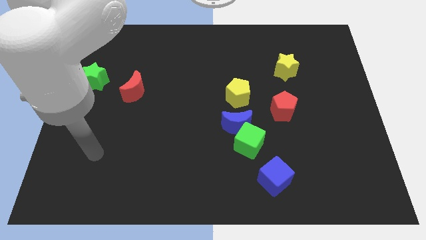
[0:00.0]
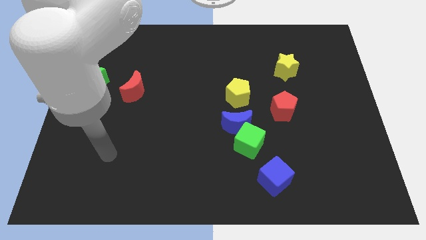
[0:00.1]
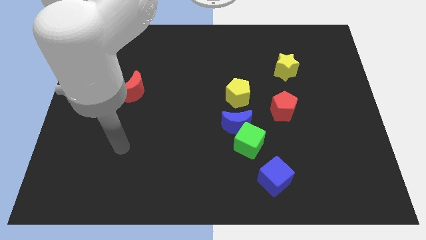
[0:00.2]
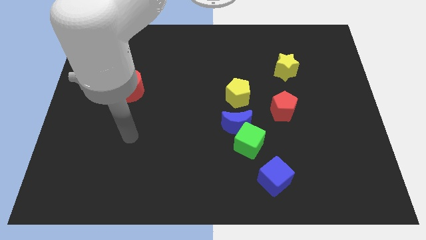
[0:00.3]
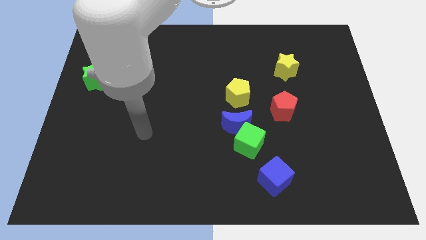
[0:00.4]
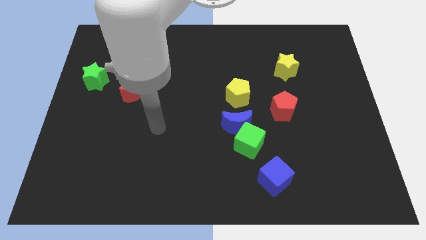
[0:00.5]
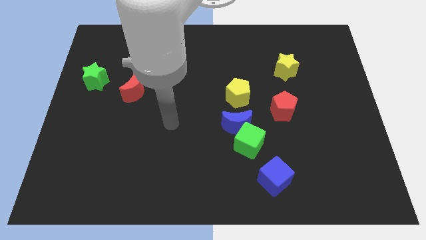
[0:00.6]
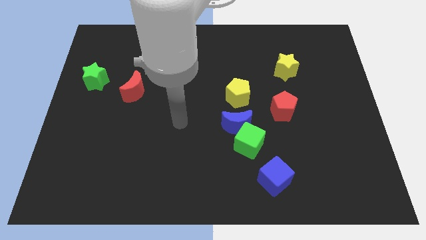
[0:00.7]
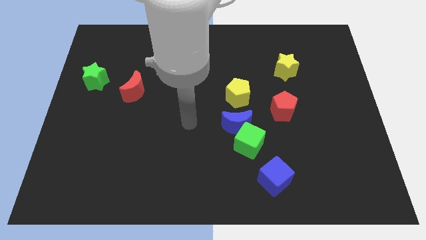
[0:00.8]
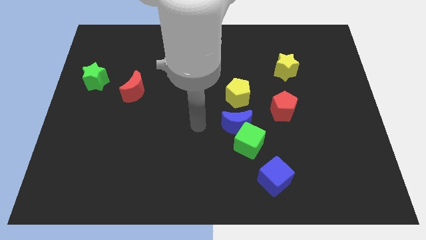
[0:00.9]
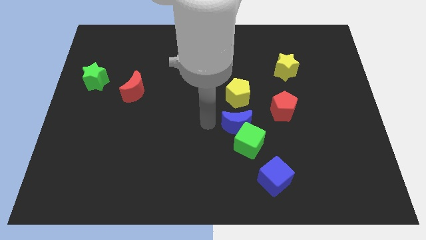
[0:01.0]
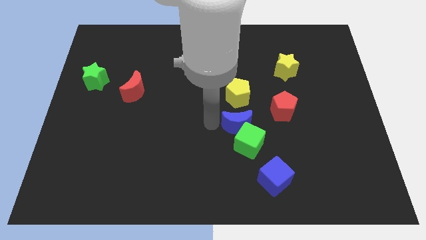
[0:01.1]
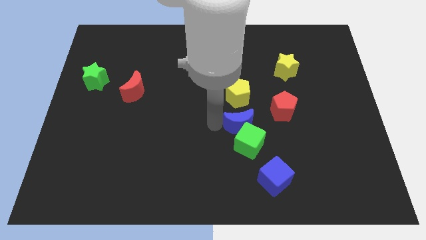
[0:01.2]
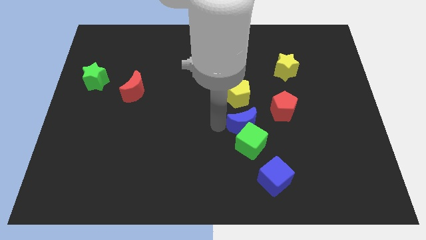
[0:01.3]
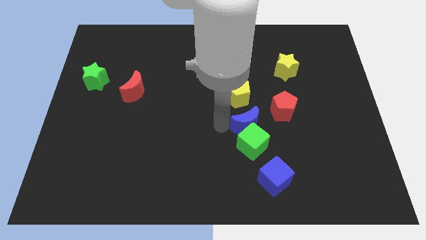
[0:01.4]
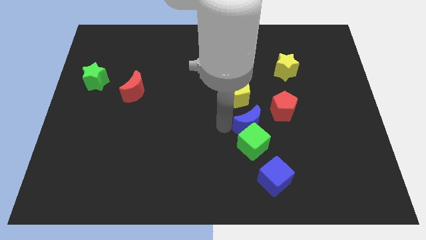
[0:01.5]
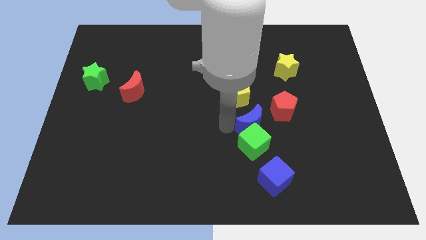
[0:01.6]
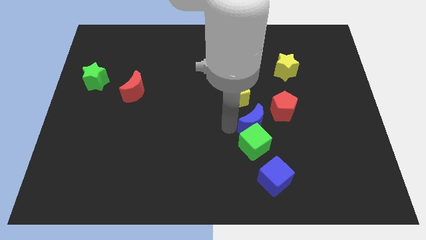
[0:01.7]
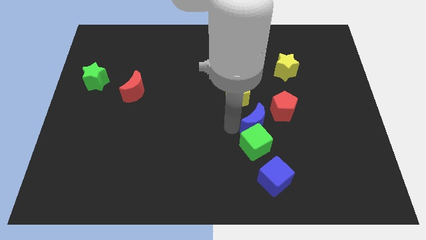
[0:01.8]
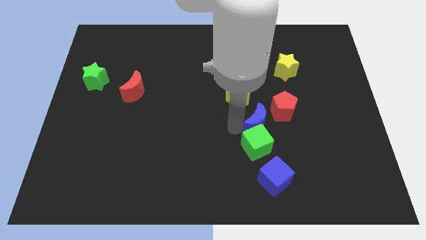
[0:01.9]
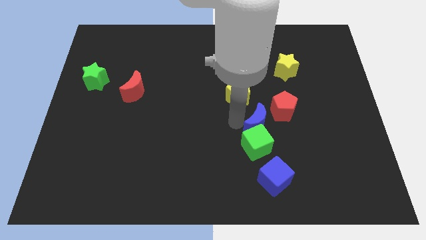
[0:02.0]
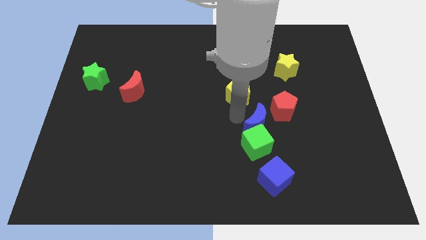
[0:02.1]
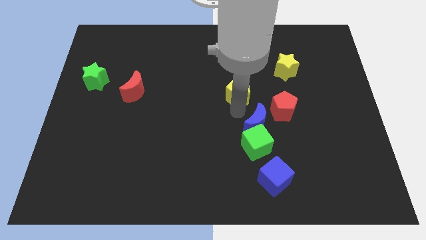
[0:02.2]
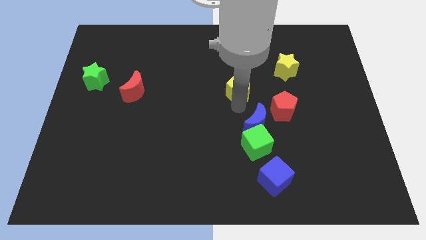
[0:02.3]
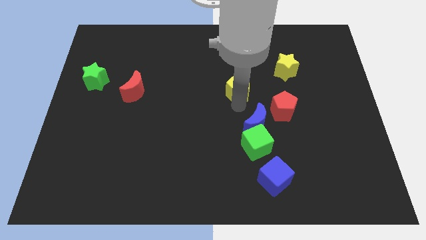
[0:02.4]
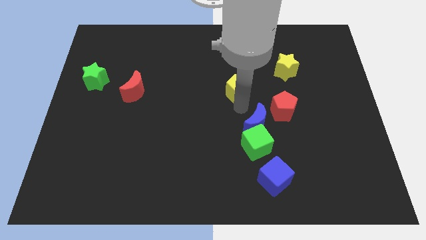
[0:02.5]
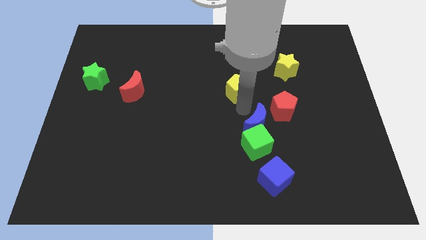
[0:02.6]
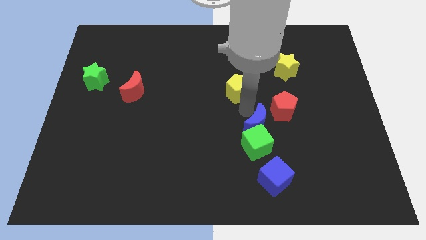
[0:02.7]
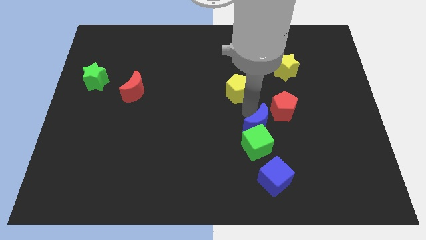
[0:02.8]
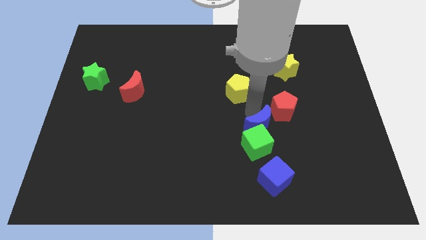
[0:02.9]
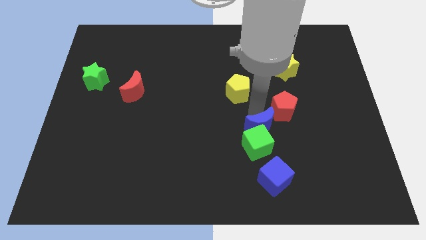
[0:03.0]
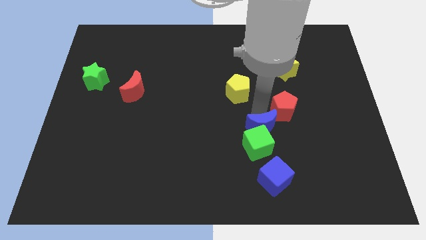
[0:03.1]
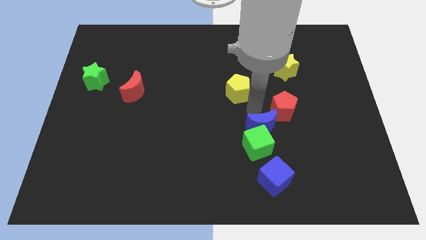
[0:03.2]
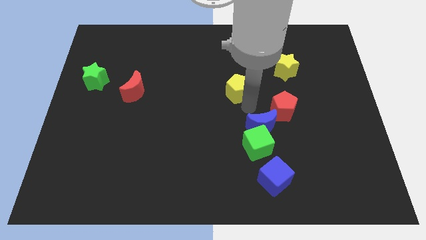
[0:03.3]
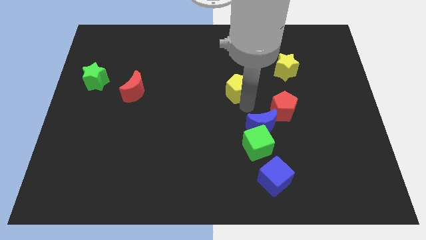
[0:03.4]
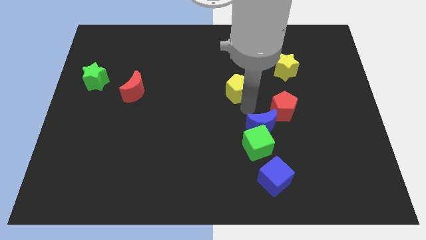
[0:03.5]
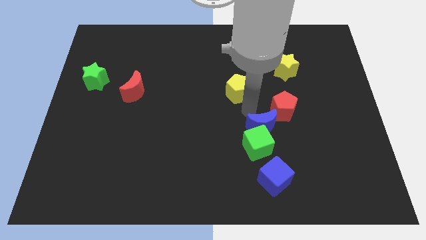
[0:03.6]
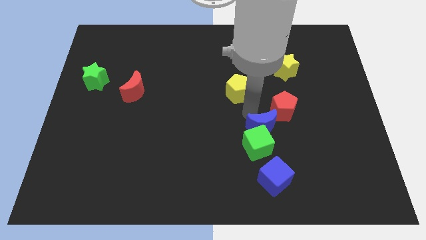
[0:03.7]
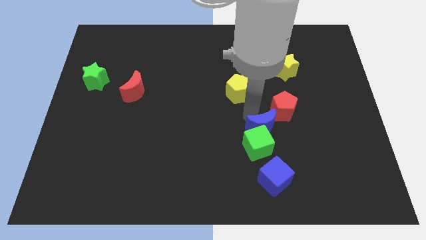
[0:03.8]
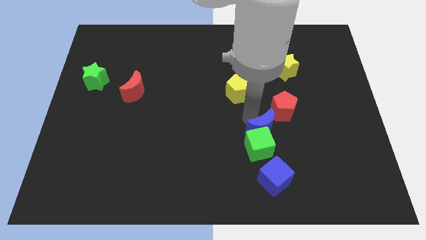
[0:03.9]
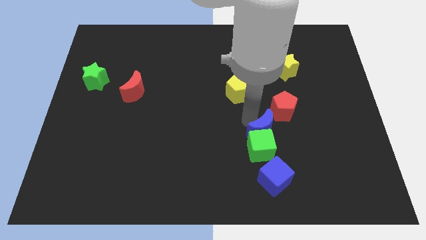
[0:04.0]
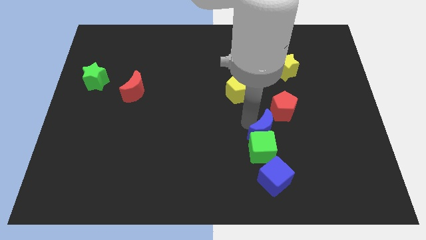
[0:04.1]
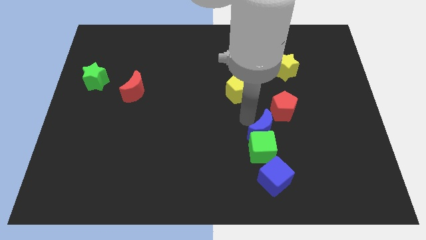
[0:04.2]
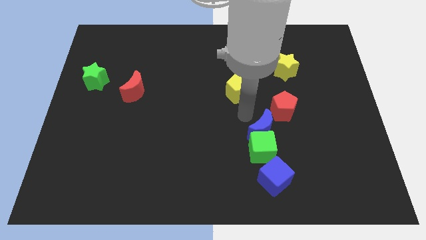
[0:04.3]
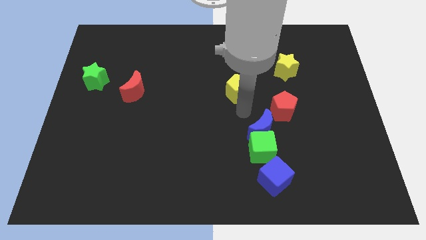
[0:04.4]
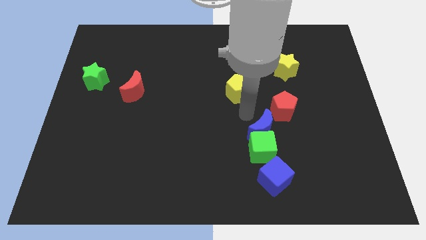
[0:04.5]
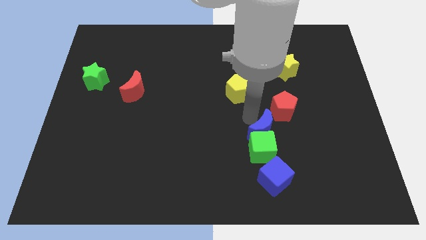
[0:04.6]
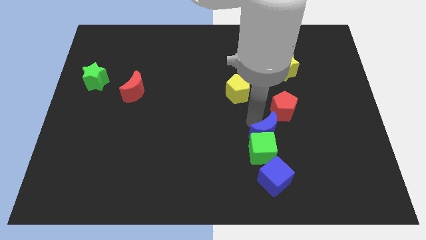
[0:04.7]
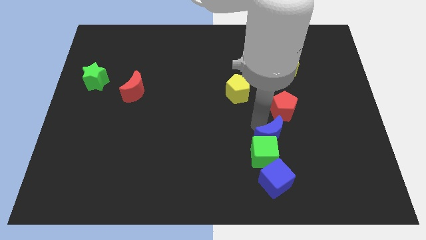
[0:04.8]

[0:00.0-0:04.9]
slightly slide the blue moon downwards and right diagonally

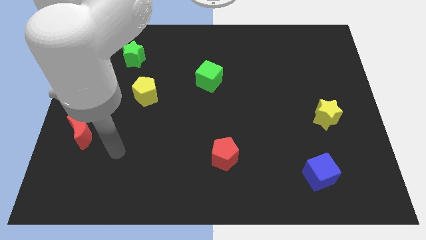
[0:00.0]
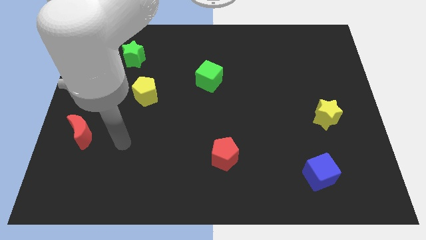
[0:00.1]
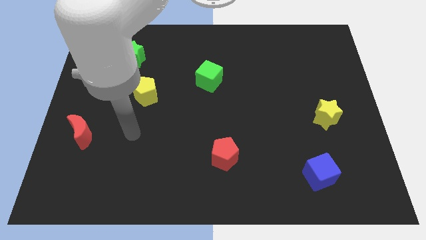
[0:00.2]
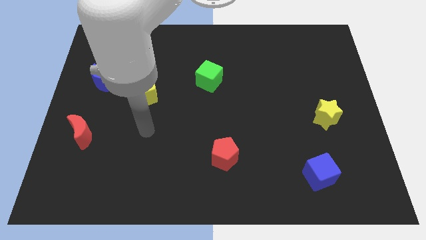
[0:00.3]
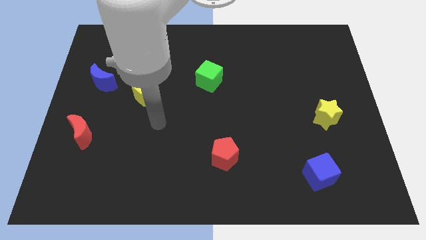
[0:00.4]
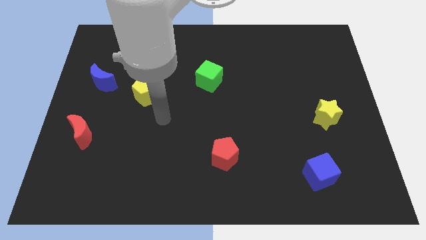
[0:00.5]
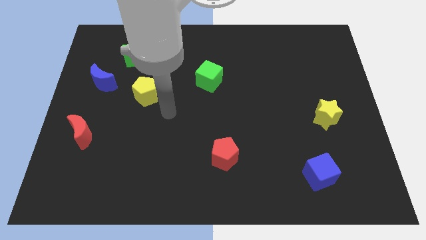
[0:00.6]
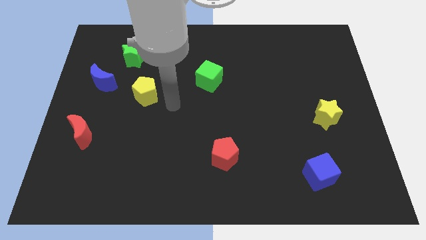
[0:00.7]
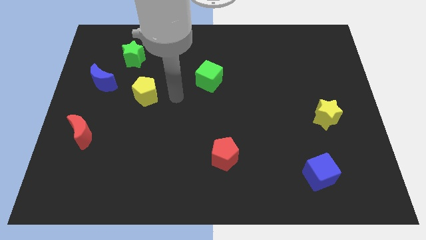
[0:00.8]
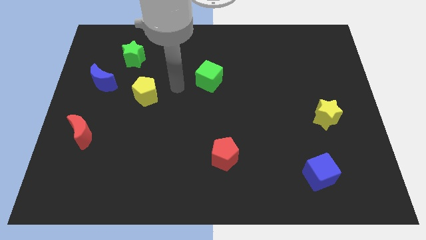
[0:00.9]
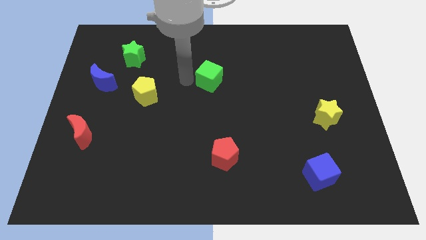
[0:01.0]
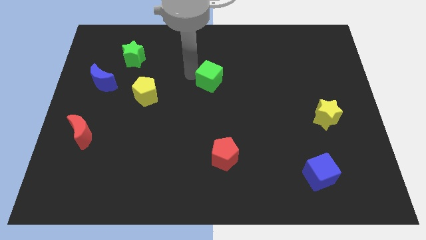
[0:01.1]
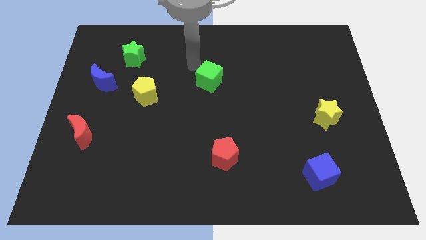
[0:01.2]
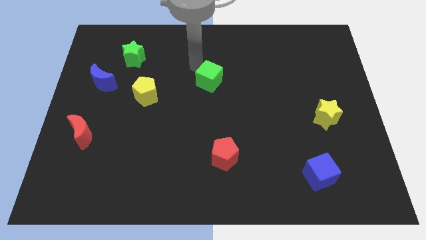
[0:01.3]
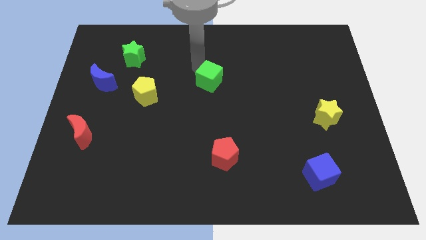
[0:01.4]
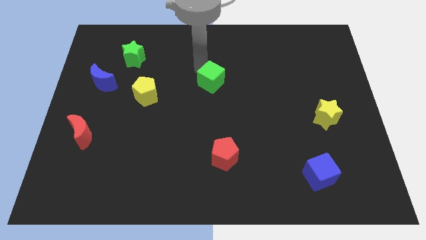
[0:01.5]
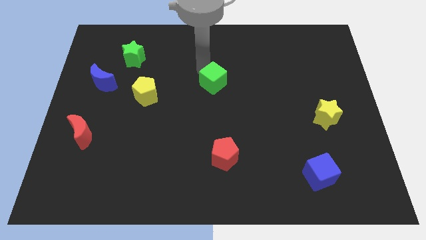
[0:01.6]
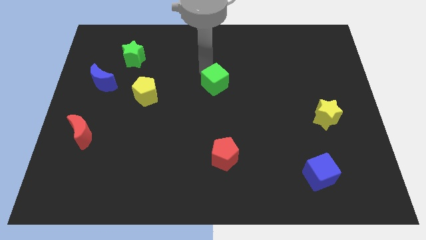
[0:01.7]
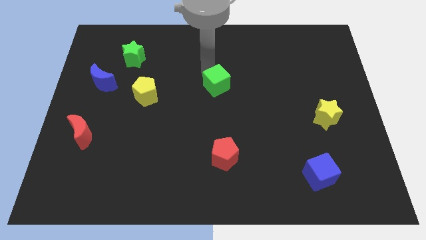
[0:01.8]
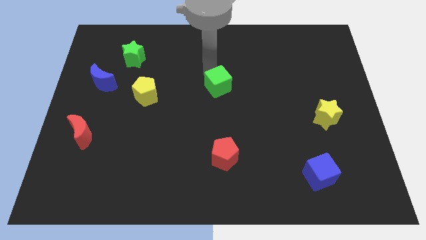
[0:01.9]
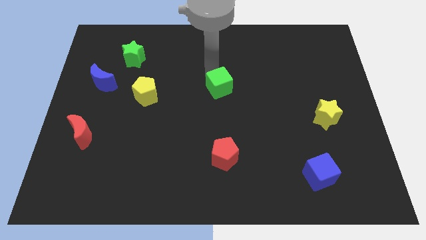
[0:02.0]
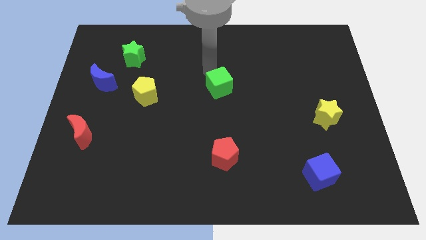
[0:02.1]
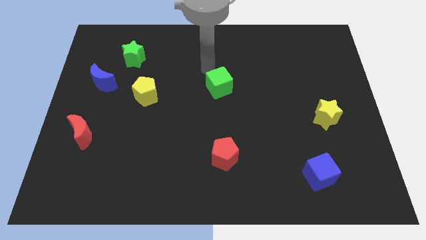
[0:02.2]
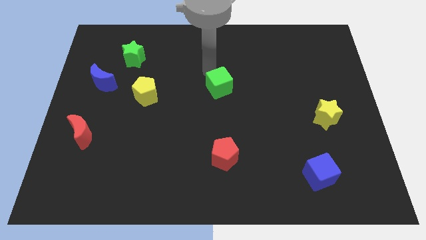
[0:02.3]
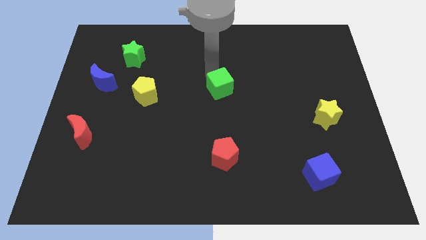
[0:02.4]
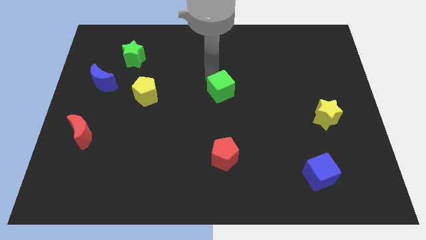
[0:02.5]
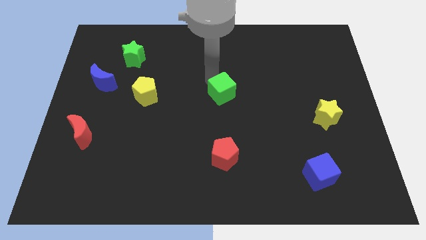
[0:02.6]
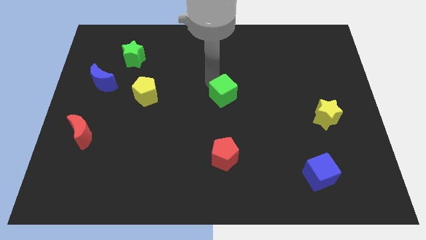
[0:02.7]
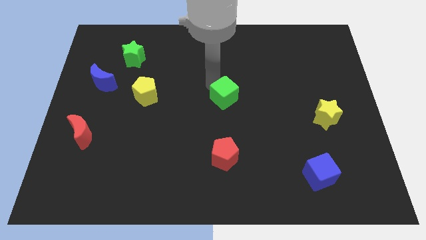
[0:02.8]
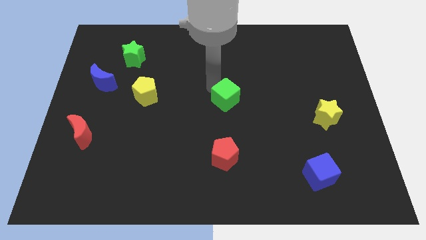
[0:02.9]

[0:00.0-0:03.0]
slightly move the green cube diagonally down and right

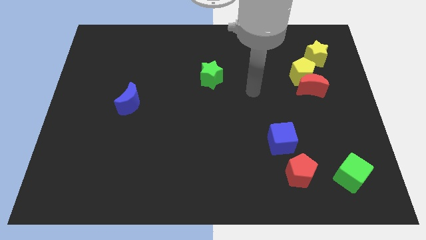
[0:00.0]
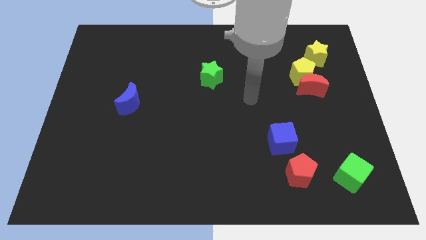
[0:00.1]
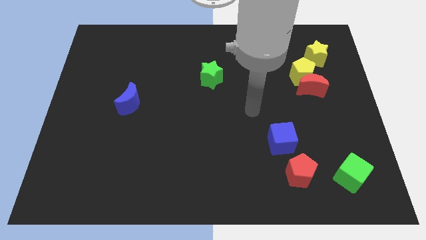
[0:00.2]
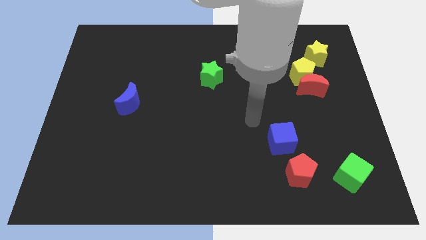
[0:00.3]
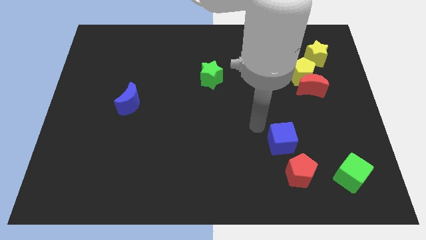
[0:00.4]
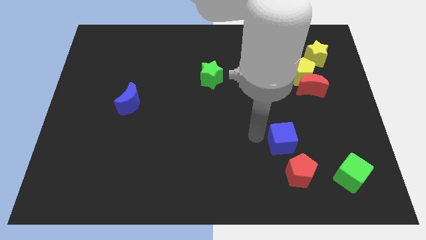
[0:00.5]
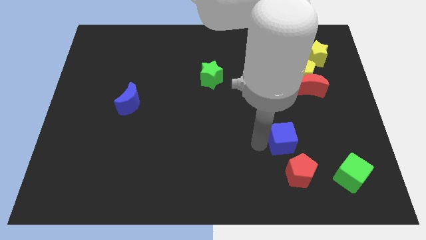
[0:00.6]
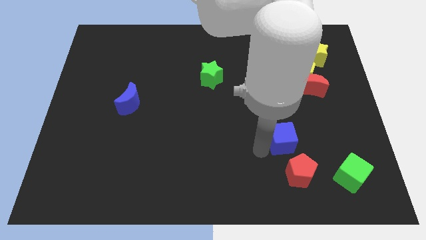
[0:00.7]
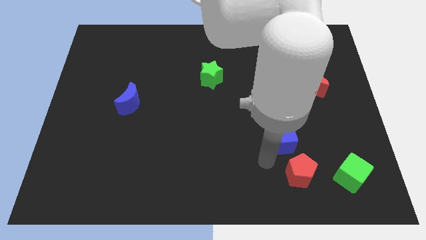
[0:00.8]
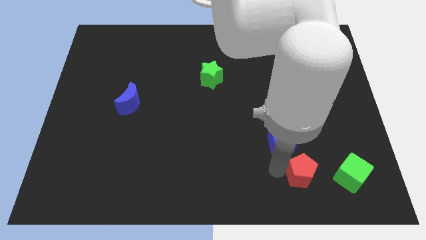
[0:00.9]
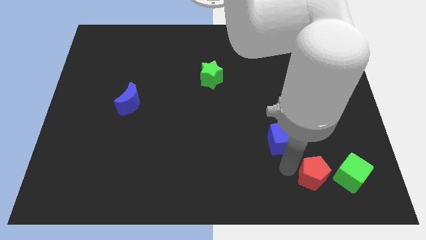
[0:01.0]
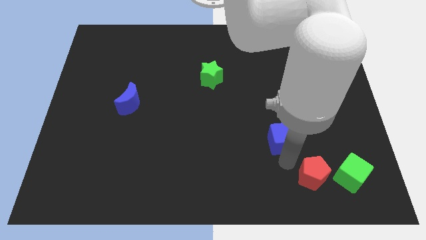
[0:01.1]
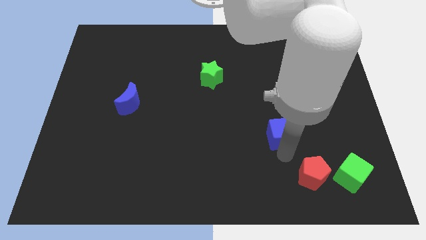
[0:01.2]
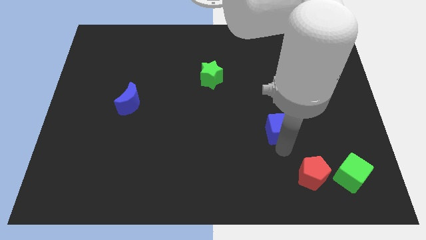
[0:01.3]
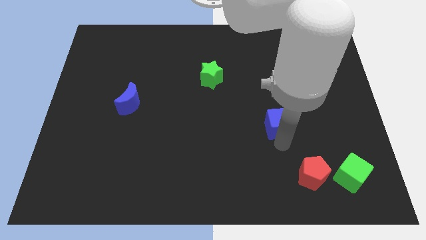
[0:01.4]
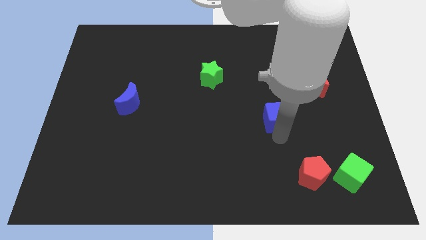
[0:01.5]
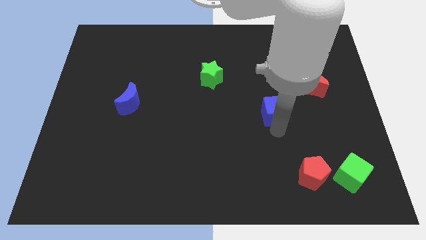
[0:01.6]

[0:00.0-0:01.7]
slightly move the blue cube up
